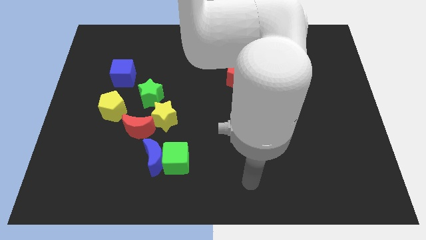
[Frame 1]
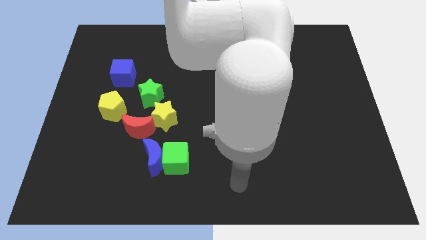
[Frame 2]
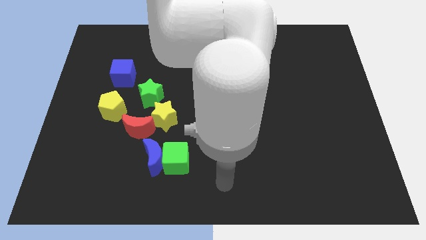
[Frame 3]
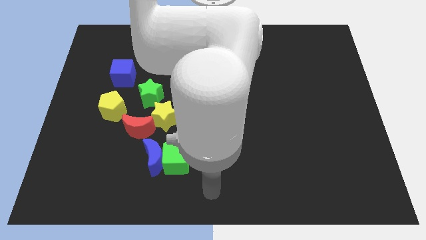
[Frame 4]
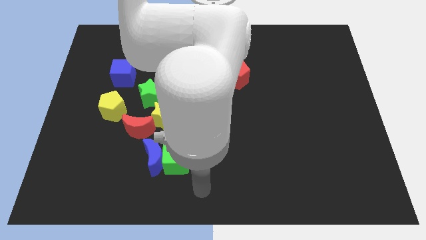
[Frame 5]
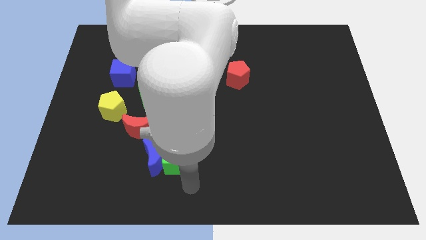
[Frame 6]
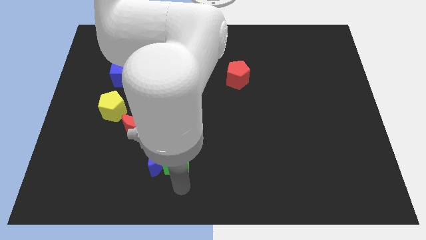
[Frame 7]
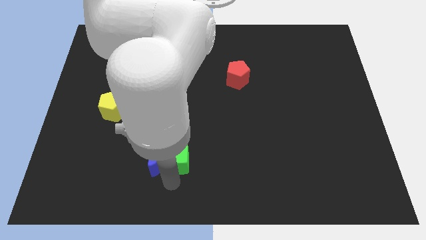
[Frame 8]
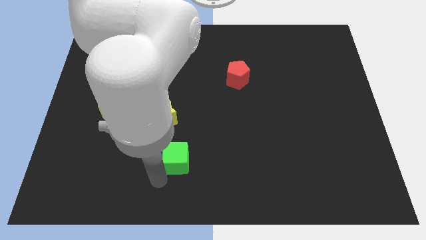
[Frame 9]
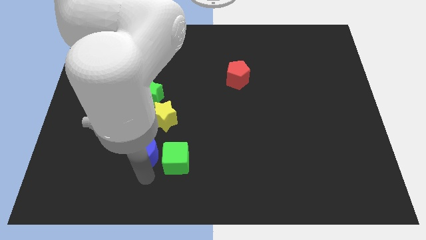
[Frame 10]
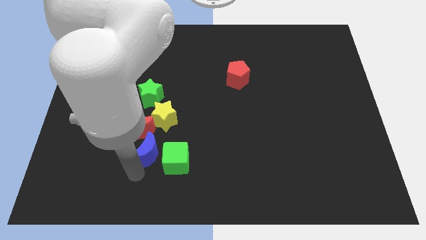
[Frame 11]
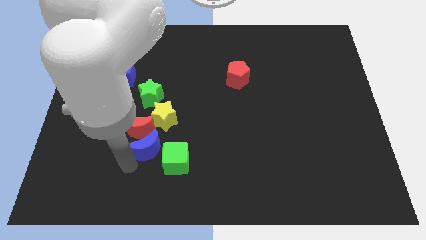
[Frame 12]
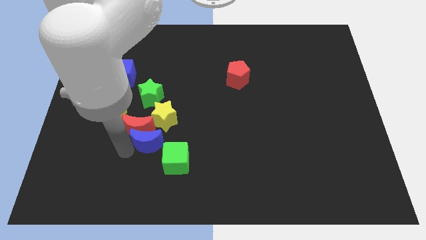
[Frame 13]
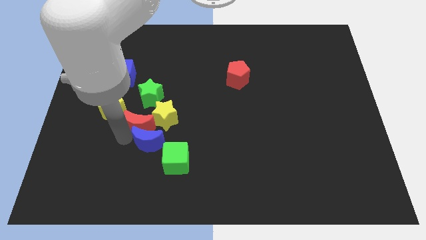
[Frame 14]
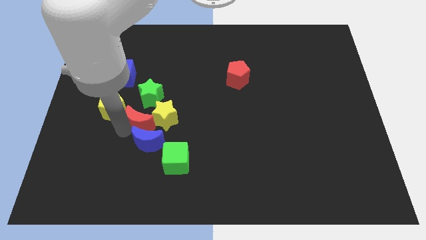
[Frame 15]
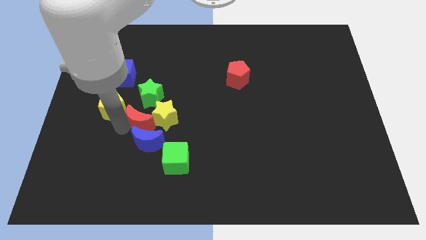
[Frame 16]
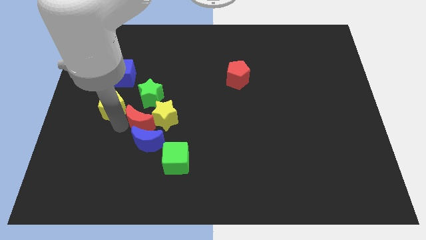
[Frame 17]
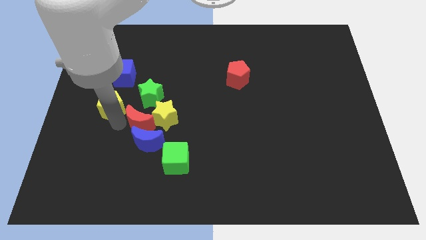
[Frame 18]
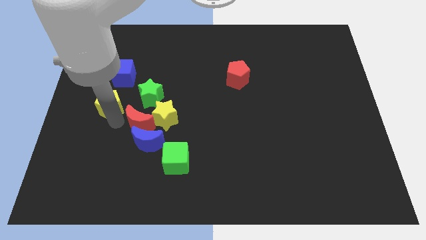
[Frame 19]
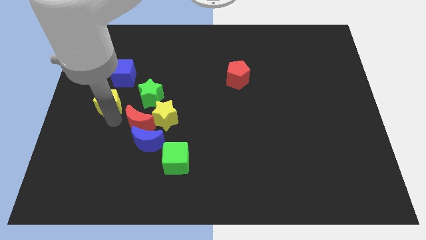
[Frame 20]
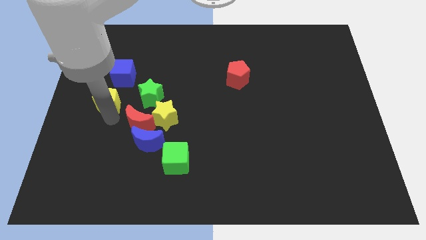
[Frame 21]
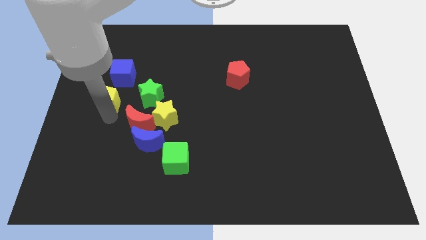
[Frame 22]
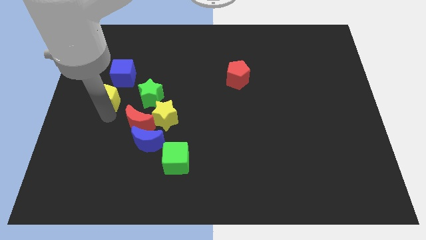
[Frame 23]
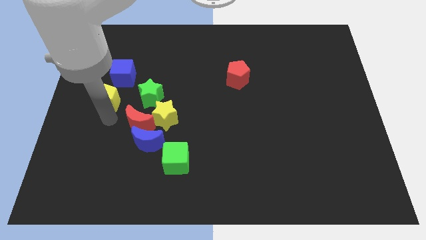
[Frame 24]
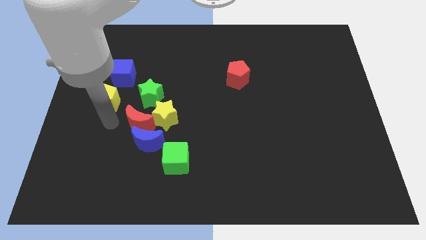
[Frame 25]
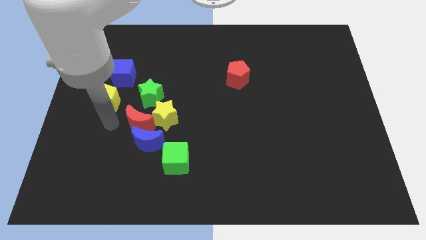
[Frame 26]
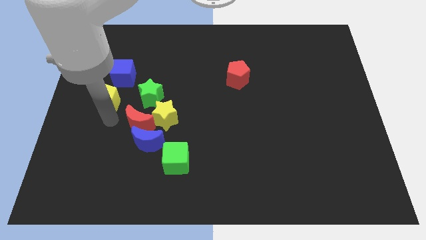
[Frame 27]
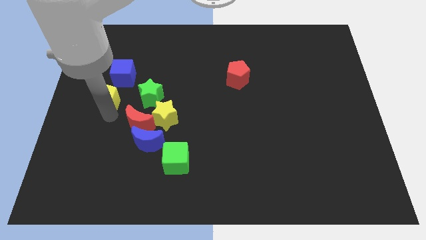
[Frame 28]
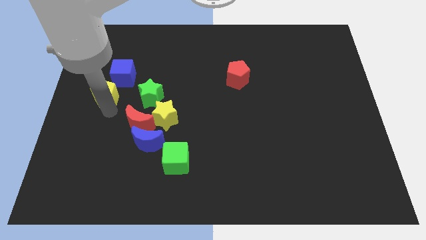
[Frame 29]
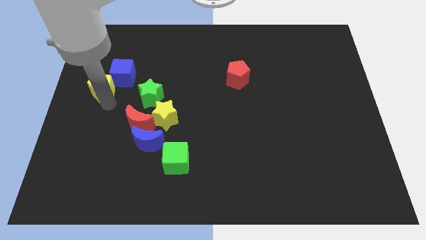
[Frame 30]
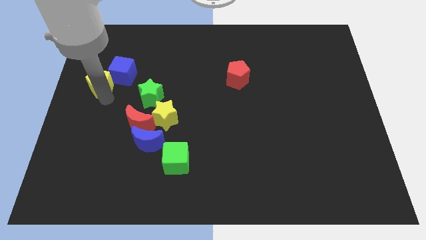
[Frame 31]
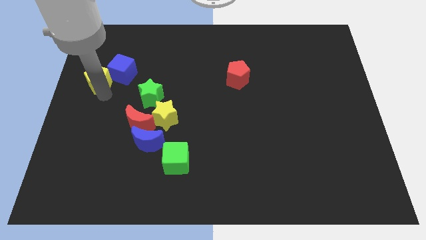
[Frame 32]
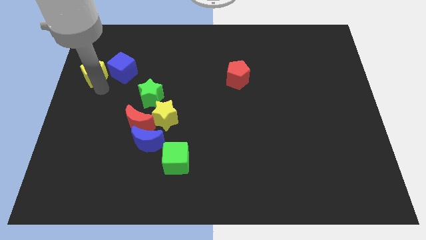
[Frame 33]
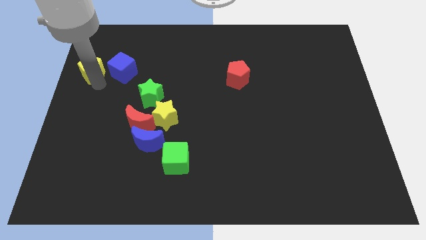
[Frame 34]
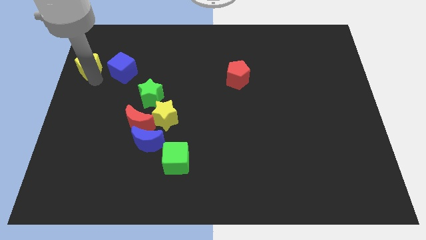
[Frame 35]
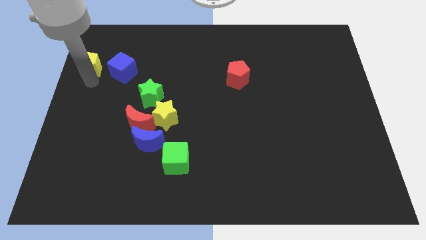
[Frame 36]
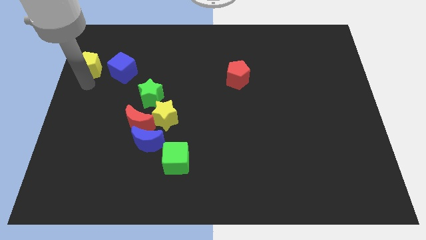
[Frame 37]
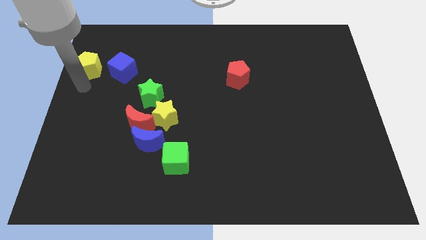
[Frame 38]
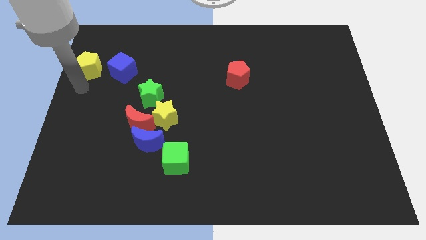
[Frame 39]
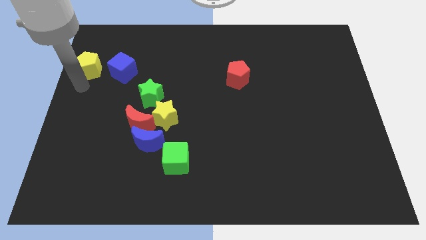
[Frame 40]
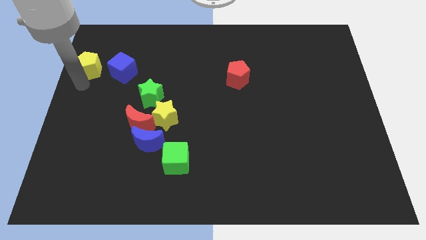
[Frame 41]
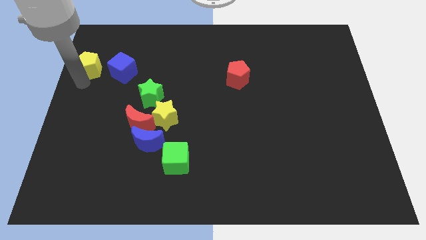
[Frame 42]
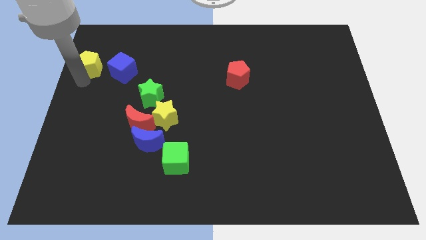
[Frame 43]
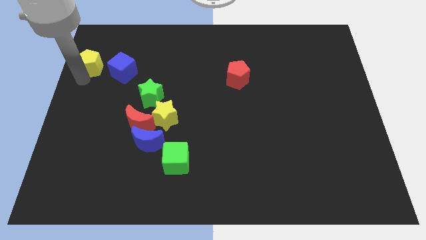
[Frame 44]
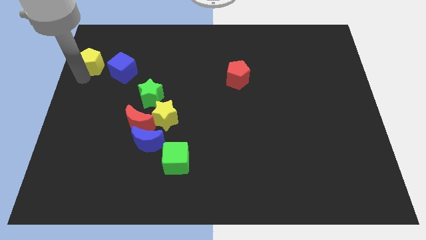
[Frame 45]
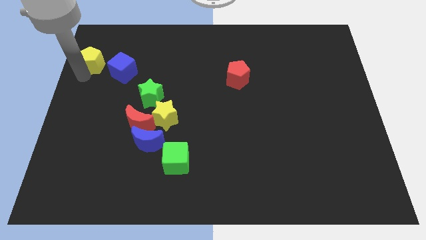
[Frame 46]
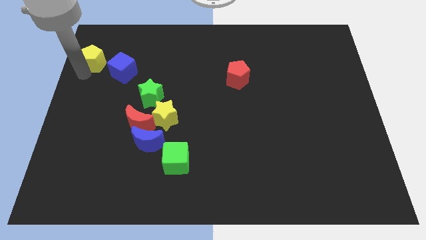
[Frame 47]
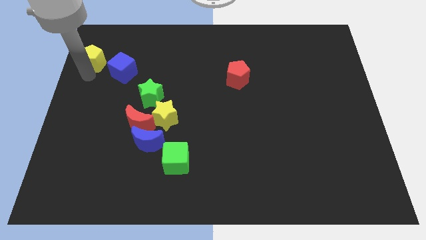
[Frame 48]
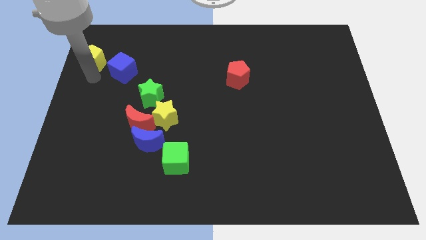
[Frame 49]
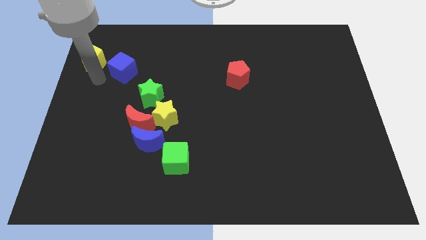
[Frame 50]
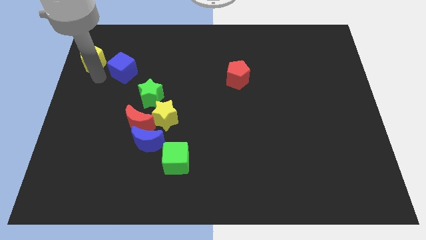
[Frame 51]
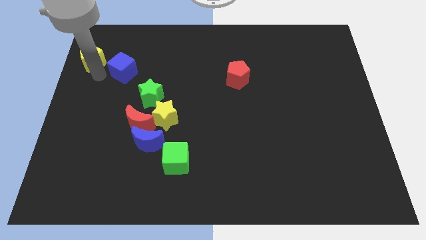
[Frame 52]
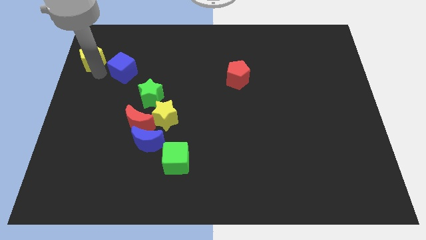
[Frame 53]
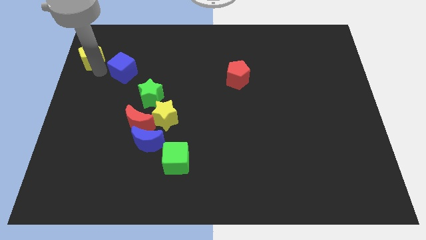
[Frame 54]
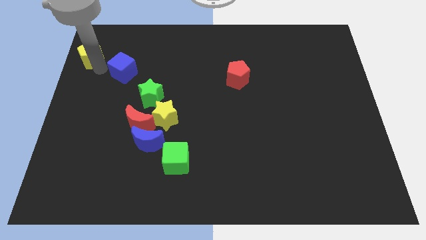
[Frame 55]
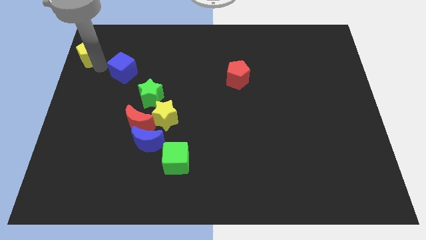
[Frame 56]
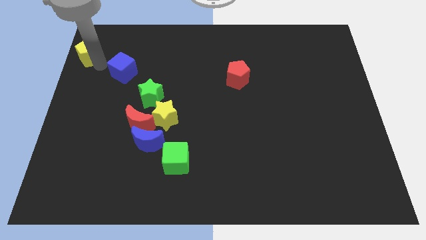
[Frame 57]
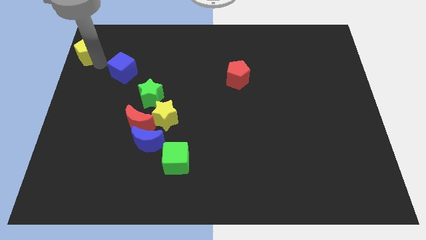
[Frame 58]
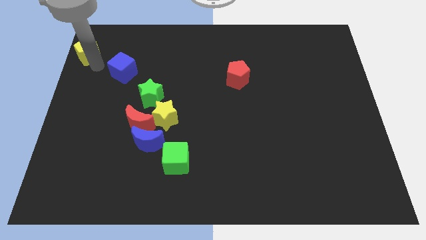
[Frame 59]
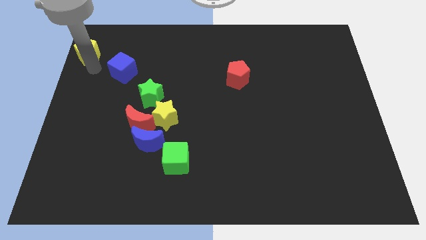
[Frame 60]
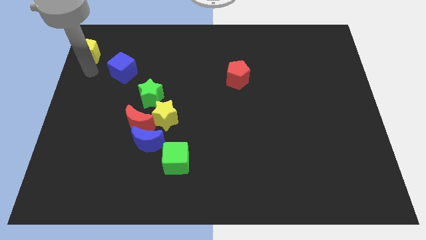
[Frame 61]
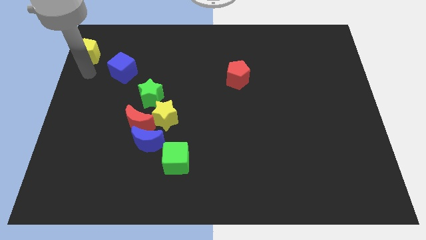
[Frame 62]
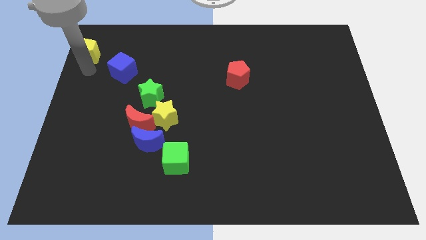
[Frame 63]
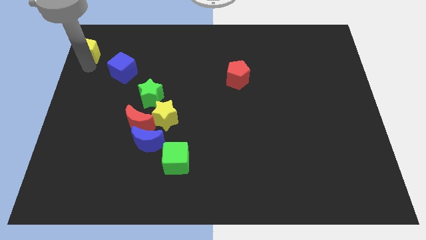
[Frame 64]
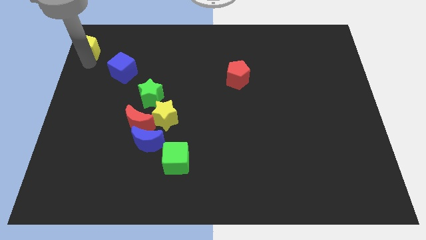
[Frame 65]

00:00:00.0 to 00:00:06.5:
move the yellow pentagon to the top left corner

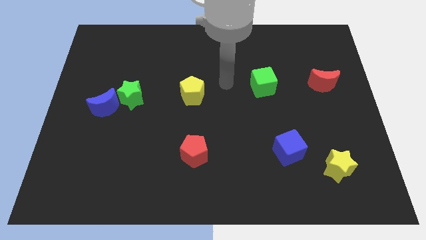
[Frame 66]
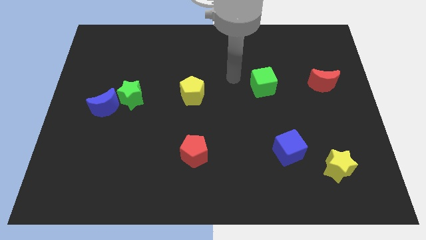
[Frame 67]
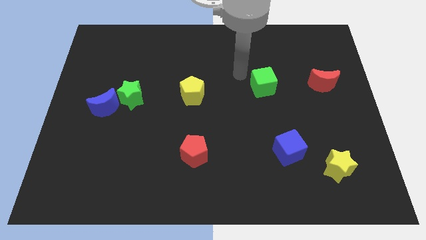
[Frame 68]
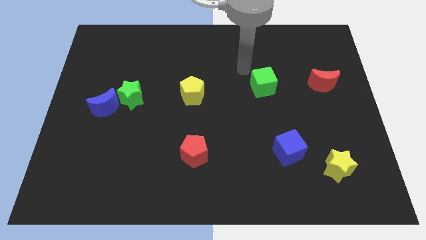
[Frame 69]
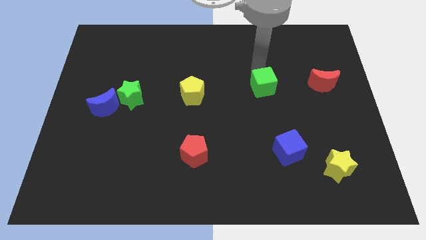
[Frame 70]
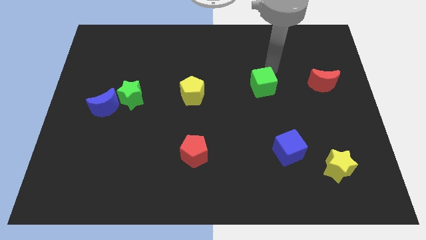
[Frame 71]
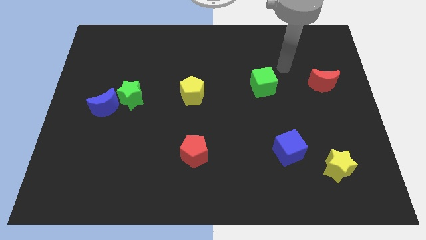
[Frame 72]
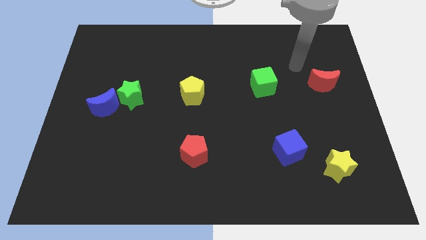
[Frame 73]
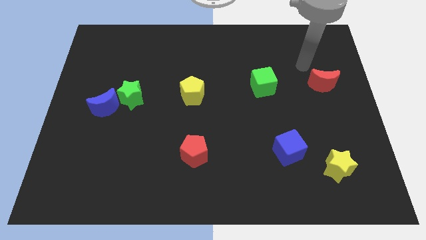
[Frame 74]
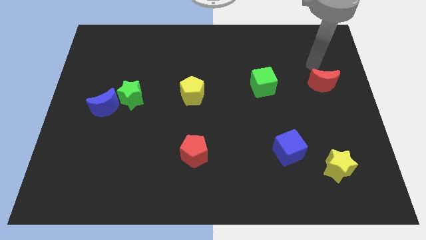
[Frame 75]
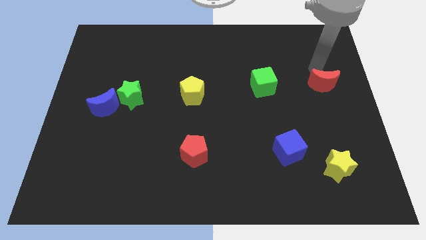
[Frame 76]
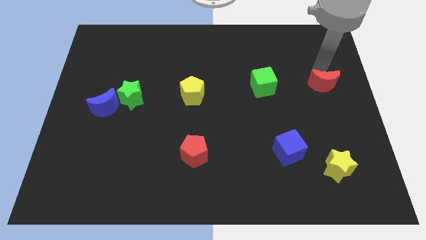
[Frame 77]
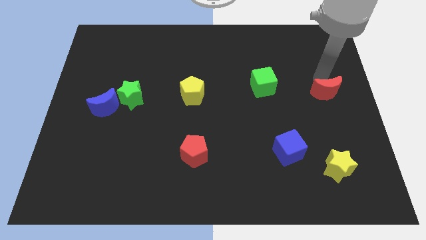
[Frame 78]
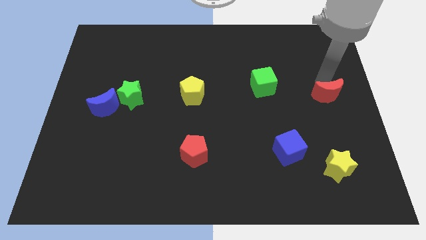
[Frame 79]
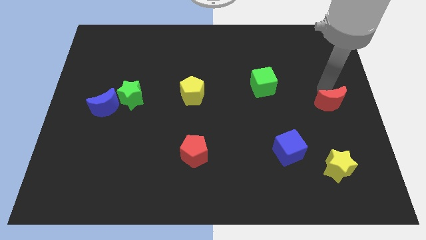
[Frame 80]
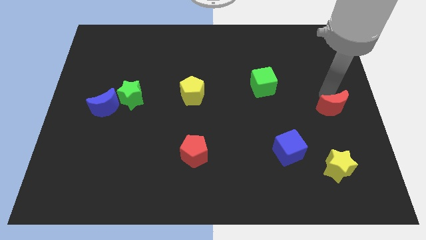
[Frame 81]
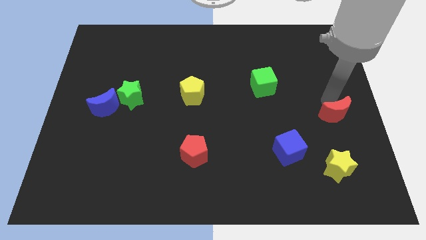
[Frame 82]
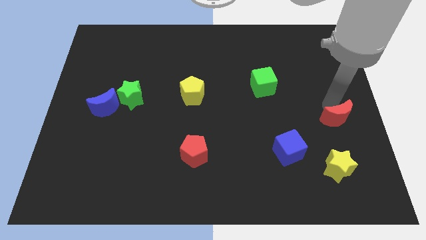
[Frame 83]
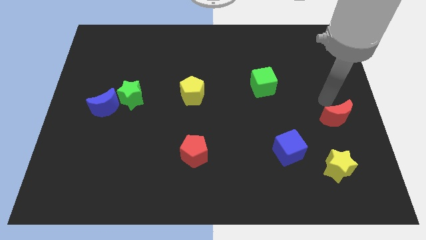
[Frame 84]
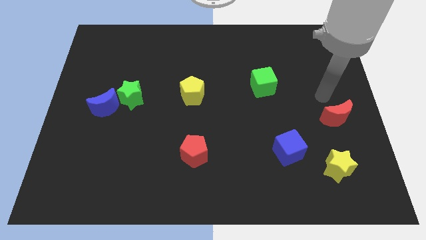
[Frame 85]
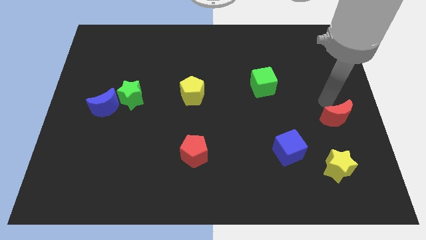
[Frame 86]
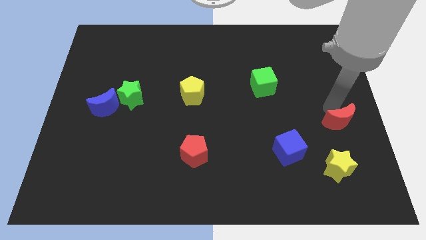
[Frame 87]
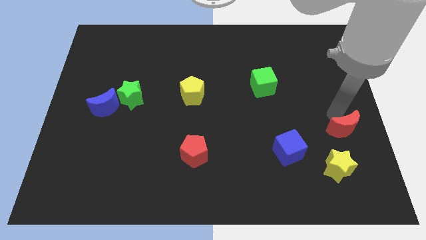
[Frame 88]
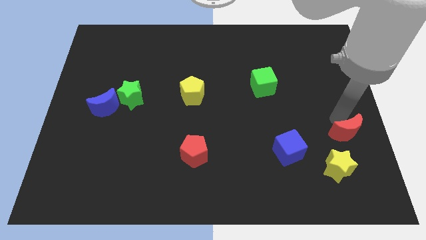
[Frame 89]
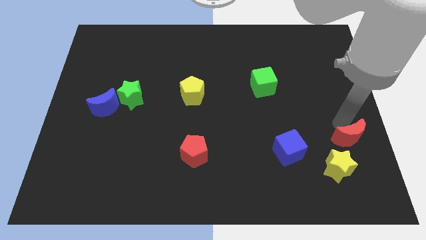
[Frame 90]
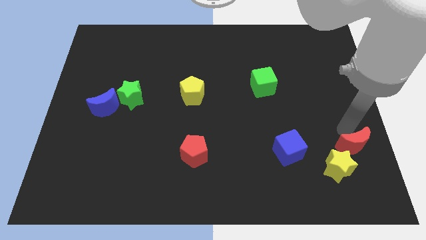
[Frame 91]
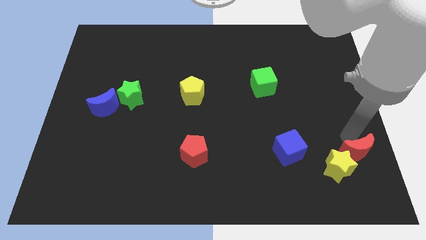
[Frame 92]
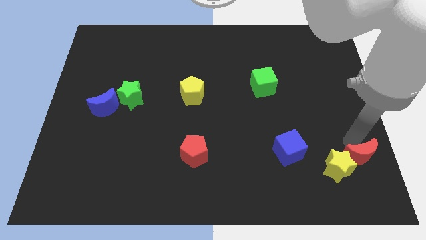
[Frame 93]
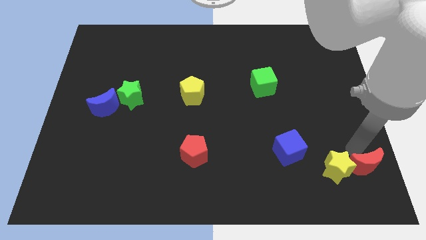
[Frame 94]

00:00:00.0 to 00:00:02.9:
move the red moon to the bottom right
